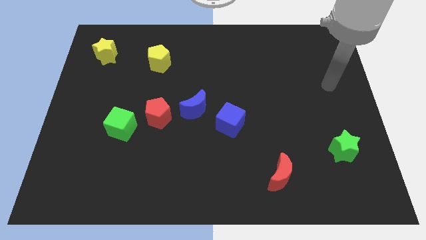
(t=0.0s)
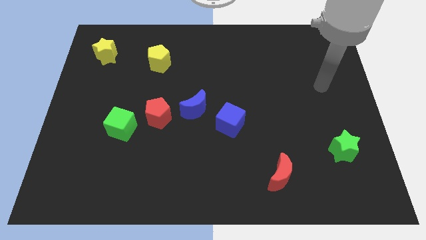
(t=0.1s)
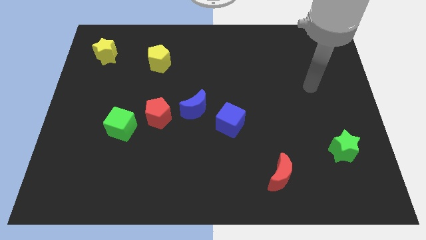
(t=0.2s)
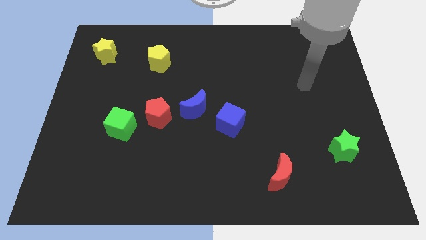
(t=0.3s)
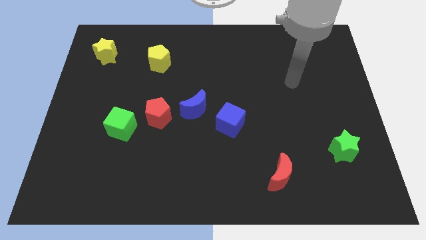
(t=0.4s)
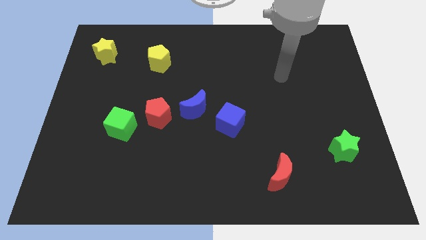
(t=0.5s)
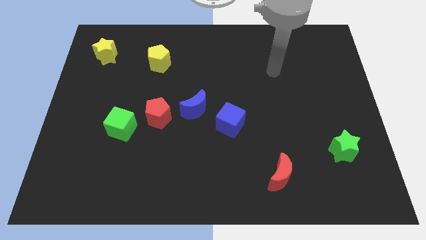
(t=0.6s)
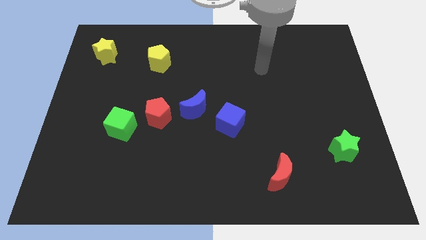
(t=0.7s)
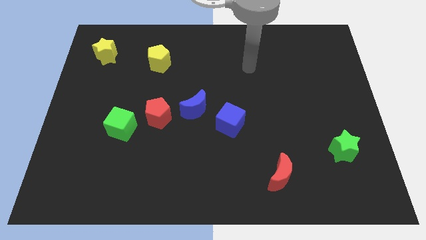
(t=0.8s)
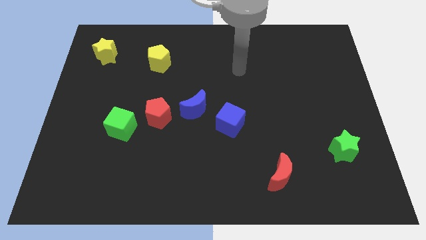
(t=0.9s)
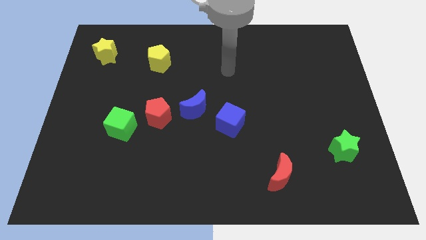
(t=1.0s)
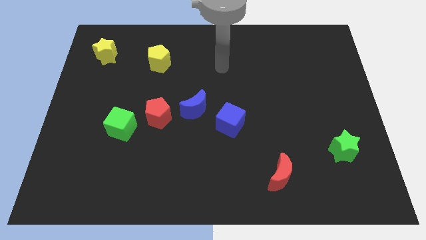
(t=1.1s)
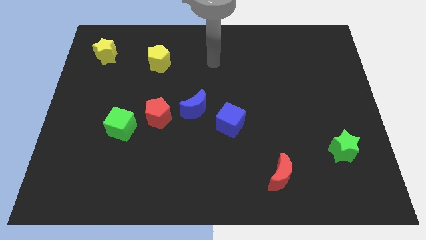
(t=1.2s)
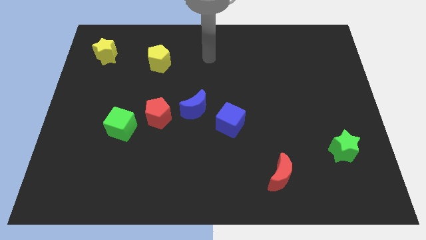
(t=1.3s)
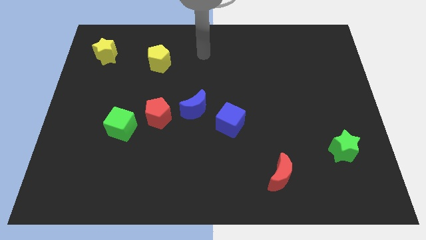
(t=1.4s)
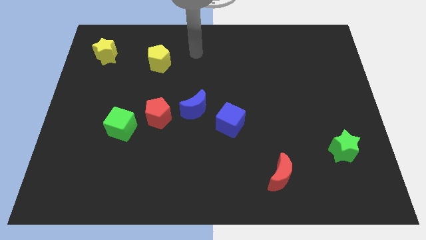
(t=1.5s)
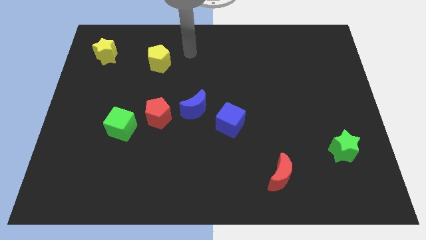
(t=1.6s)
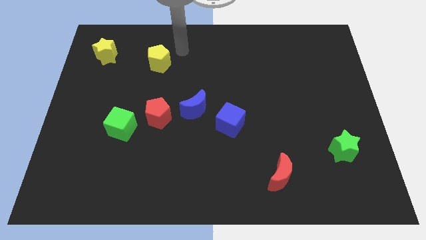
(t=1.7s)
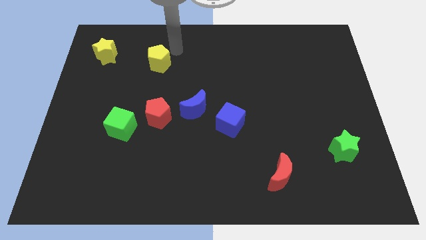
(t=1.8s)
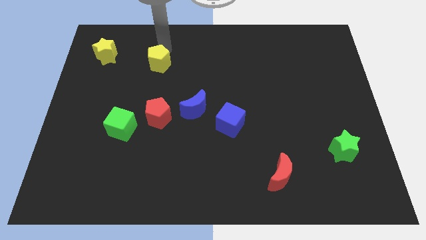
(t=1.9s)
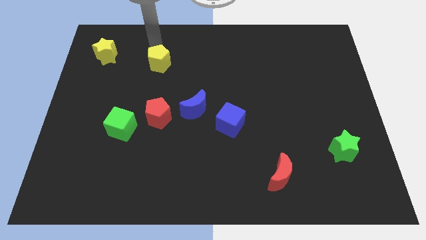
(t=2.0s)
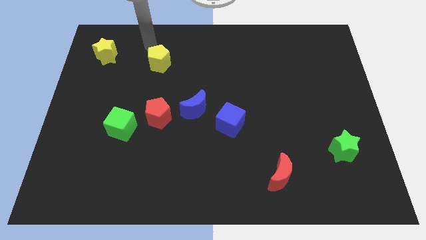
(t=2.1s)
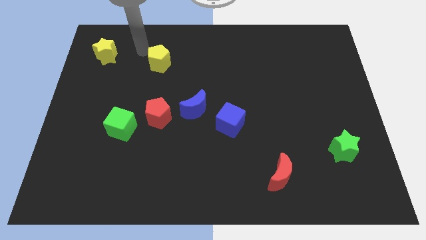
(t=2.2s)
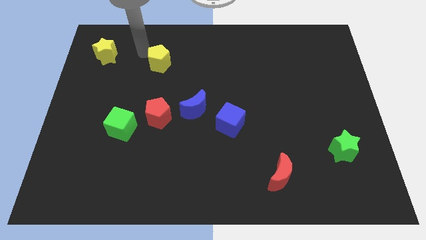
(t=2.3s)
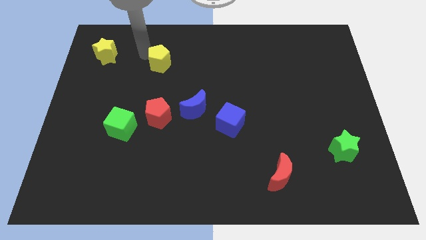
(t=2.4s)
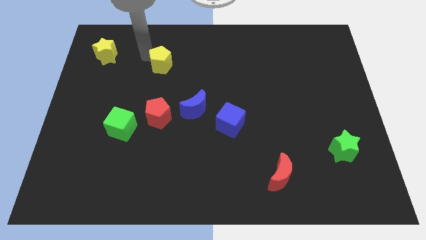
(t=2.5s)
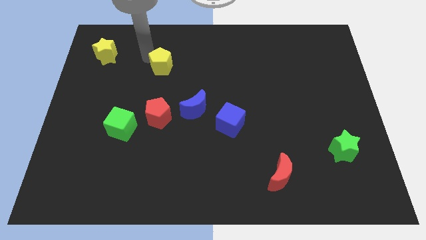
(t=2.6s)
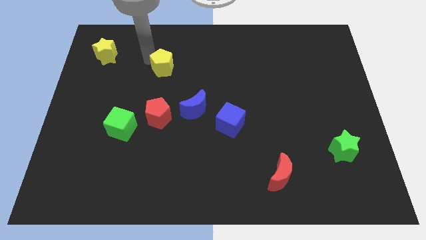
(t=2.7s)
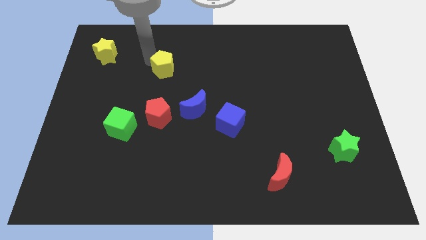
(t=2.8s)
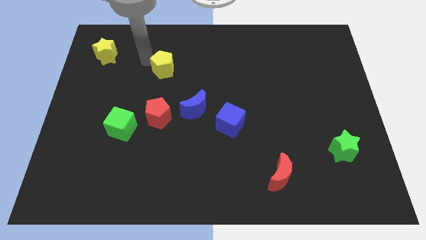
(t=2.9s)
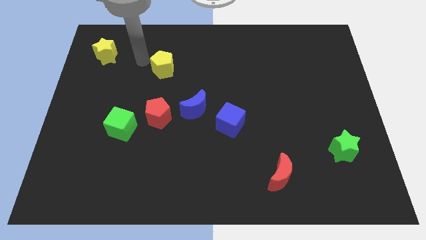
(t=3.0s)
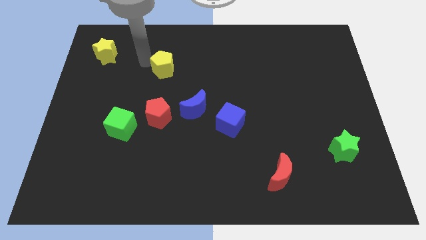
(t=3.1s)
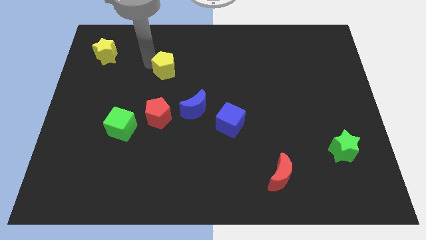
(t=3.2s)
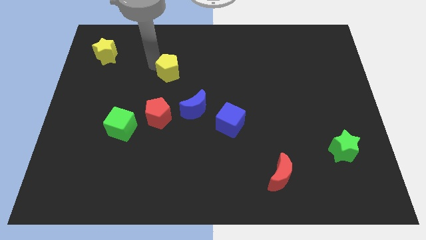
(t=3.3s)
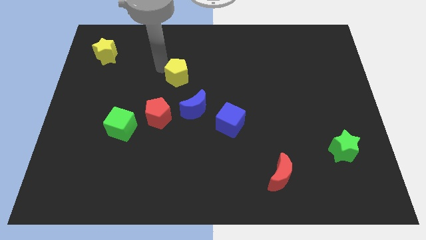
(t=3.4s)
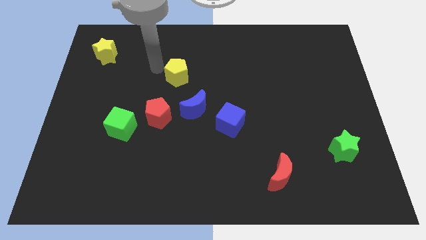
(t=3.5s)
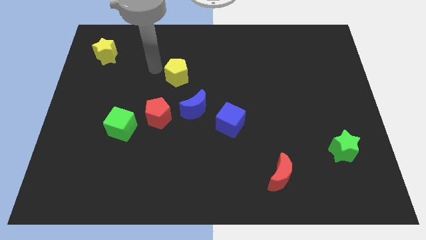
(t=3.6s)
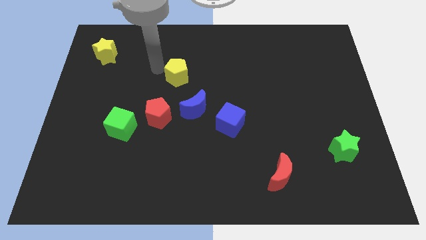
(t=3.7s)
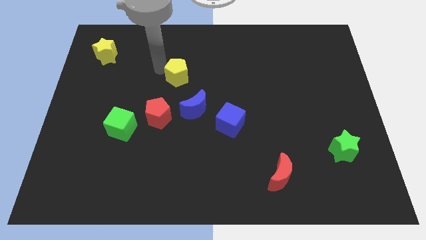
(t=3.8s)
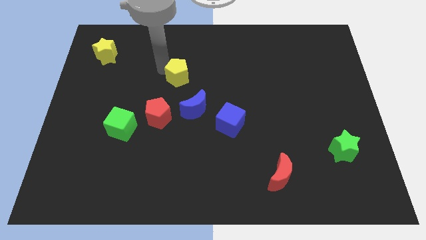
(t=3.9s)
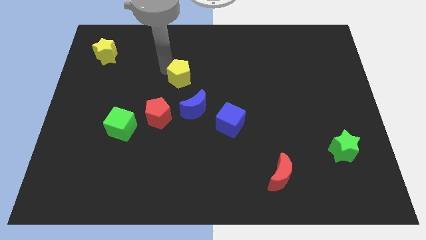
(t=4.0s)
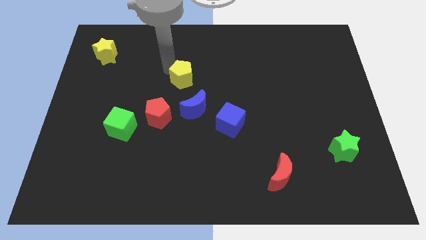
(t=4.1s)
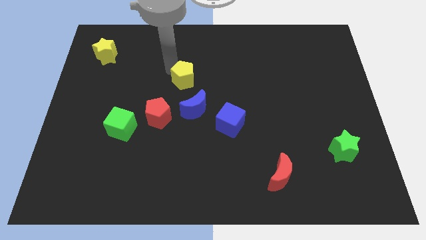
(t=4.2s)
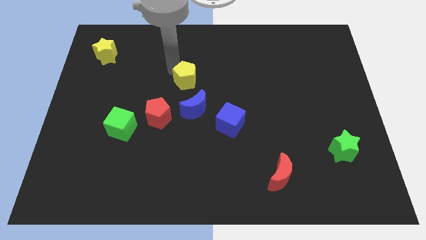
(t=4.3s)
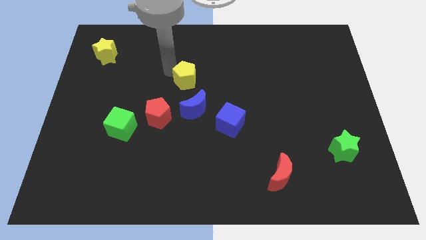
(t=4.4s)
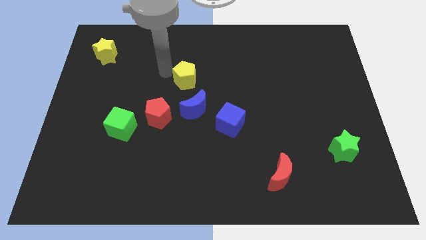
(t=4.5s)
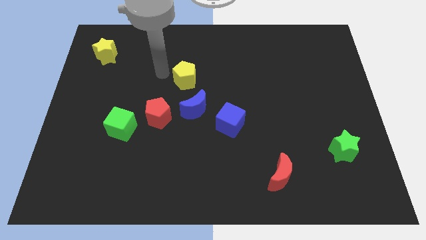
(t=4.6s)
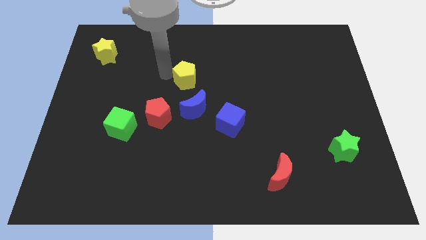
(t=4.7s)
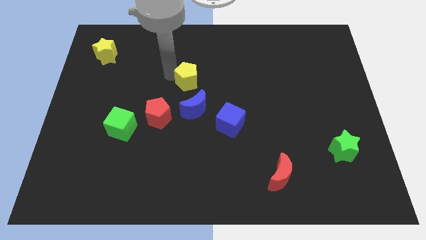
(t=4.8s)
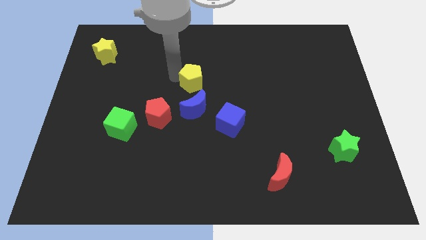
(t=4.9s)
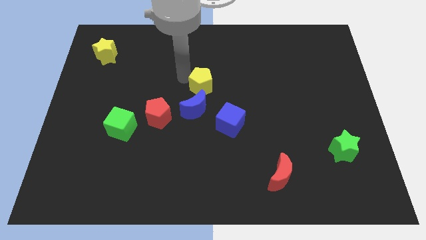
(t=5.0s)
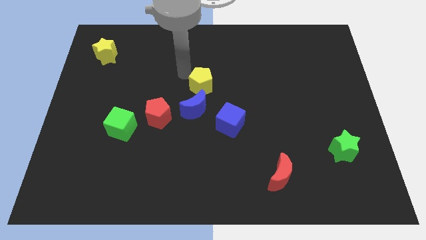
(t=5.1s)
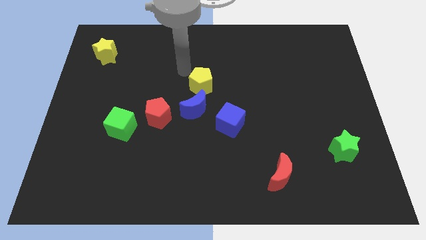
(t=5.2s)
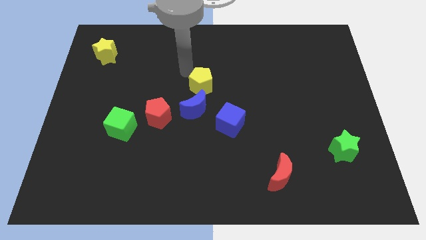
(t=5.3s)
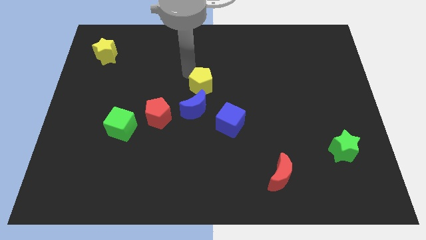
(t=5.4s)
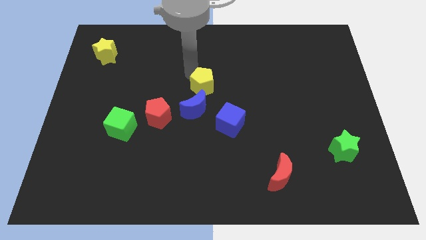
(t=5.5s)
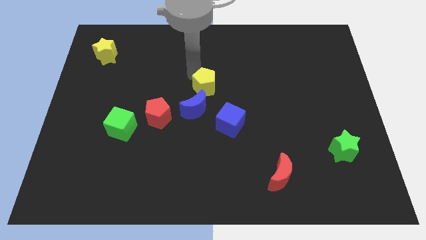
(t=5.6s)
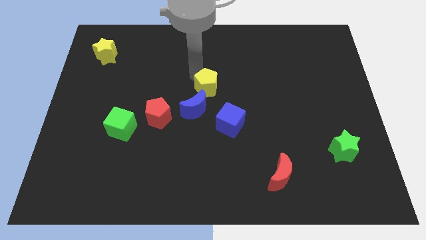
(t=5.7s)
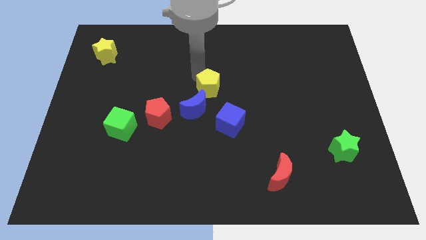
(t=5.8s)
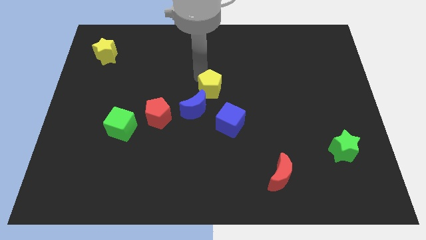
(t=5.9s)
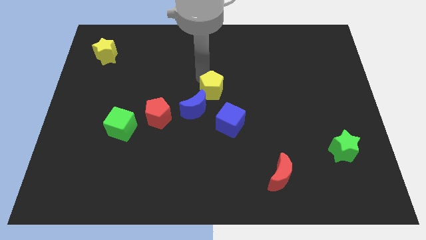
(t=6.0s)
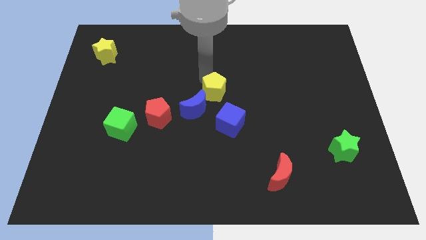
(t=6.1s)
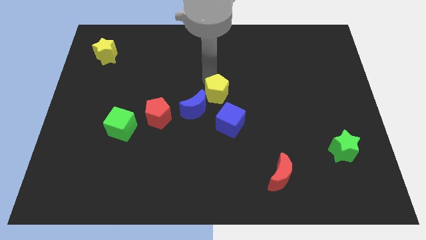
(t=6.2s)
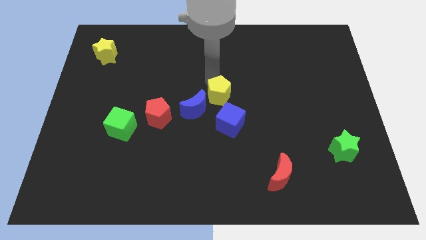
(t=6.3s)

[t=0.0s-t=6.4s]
put the yellow pentagon right of the blue moon

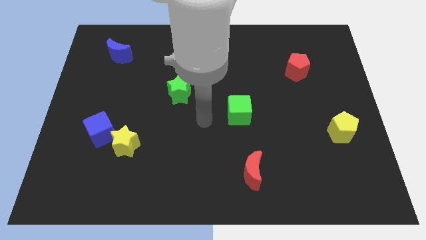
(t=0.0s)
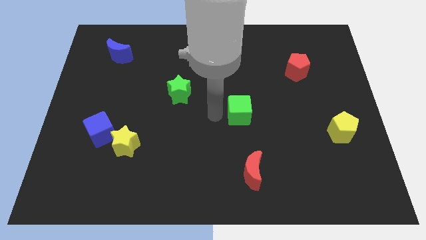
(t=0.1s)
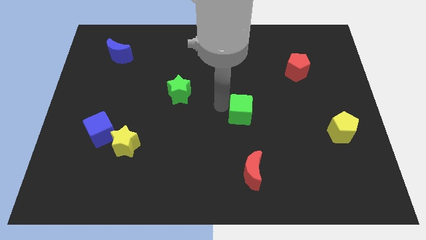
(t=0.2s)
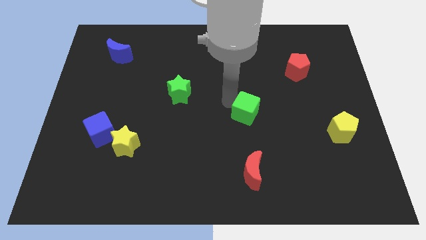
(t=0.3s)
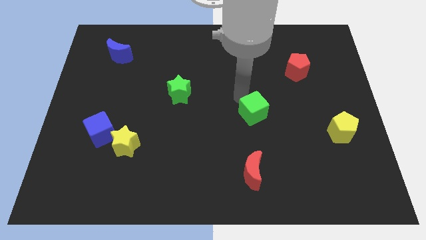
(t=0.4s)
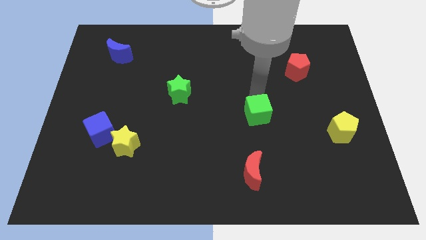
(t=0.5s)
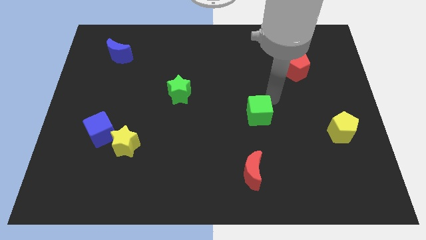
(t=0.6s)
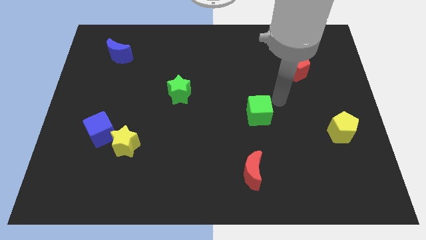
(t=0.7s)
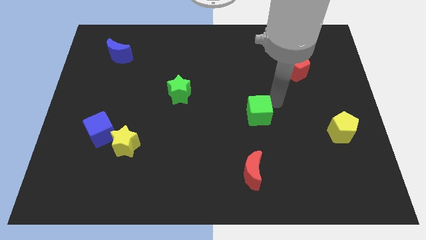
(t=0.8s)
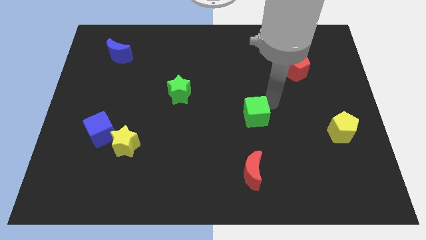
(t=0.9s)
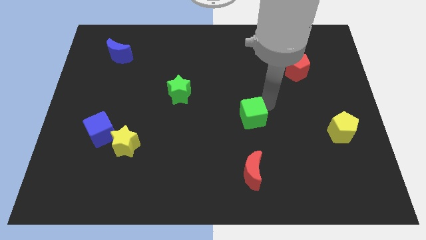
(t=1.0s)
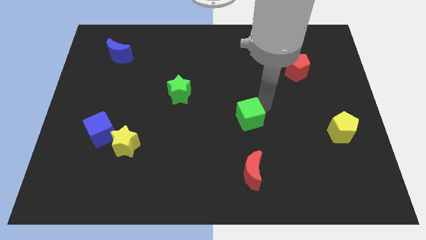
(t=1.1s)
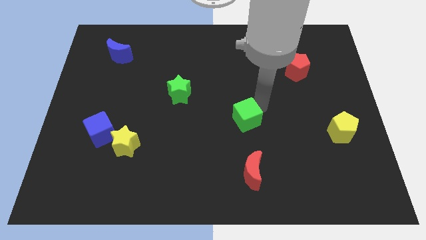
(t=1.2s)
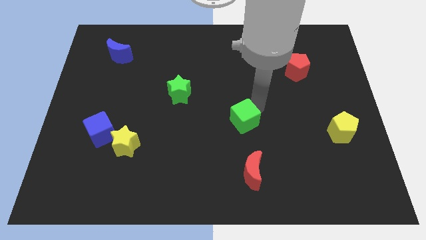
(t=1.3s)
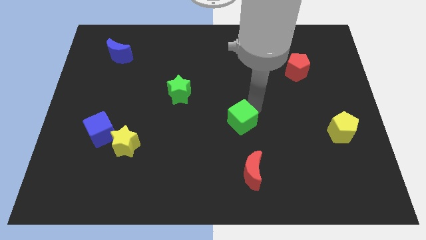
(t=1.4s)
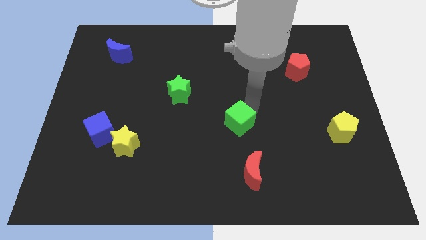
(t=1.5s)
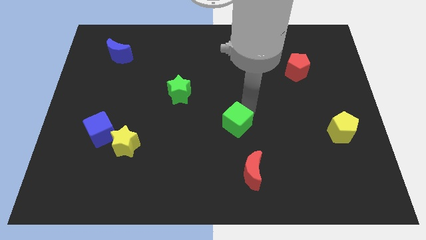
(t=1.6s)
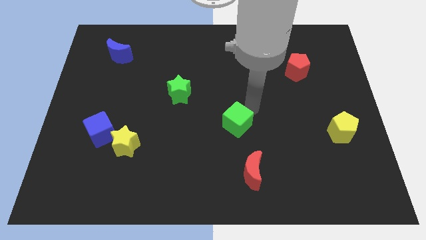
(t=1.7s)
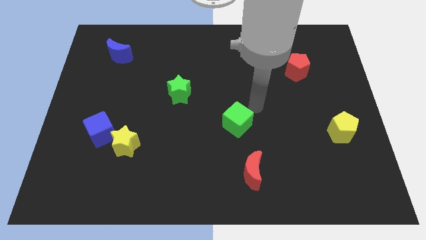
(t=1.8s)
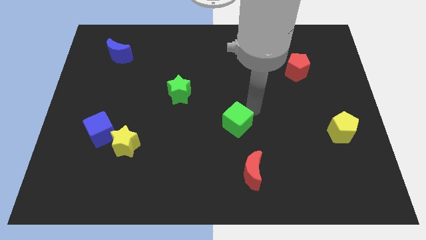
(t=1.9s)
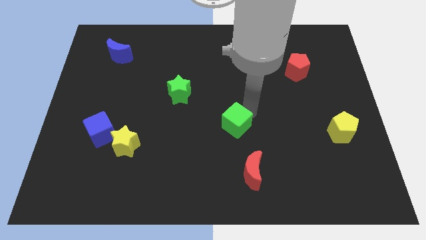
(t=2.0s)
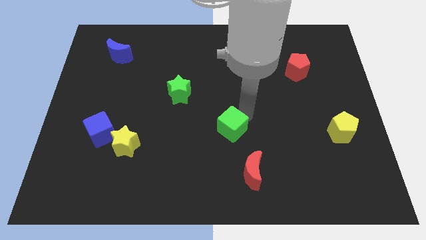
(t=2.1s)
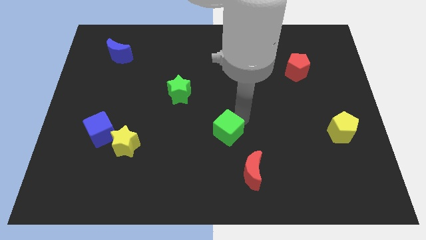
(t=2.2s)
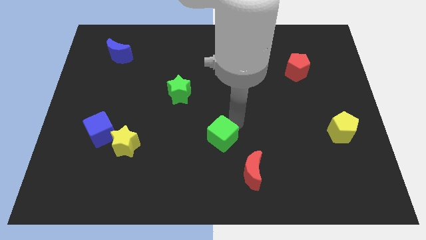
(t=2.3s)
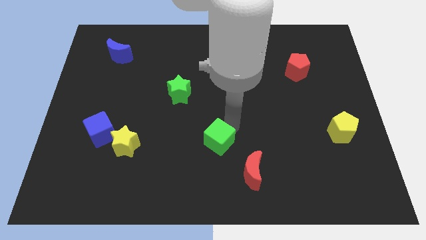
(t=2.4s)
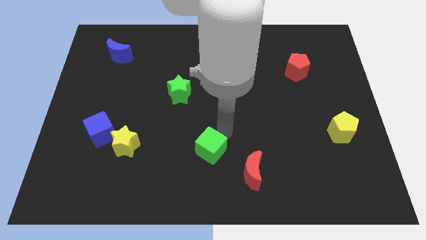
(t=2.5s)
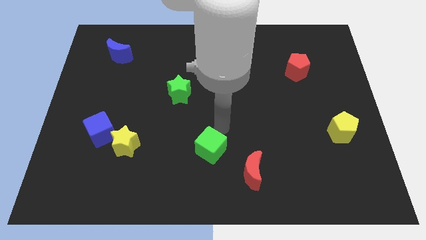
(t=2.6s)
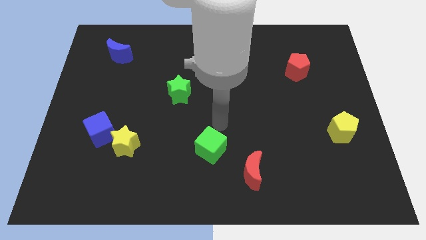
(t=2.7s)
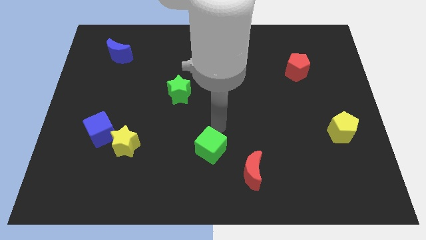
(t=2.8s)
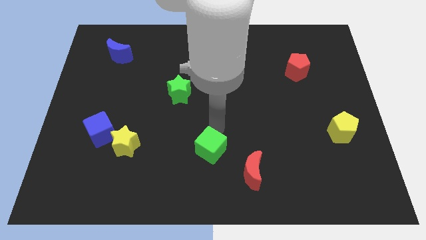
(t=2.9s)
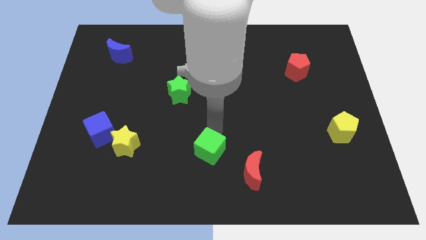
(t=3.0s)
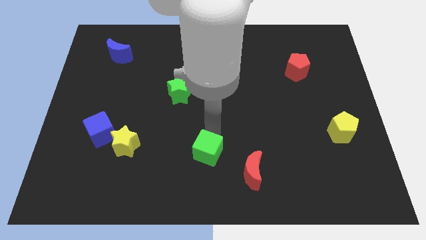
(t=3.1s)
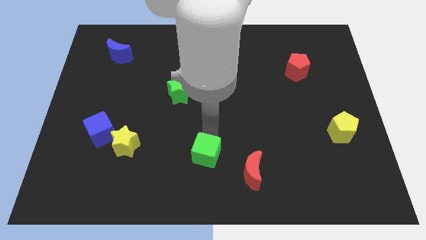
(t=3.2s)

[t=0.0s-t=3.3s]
put the green cube left of the red moon
